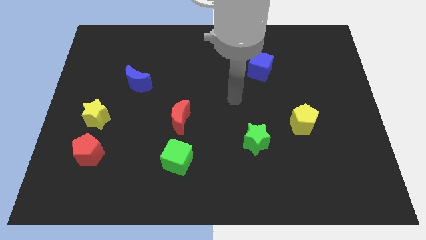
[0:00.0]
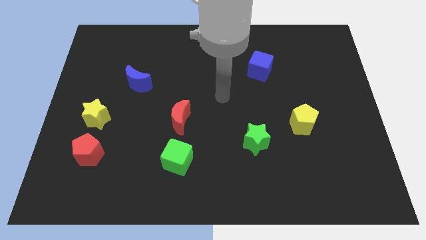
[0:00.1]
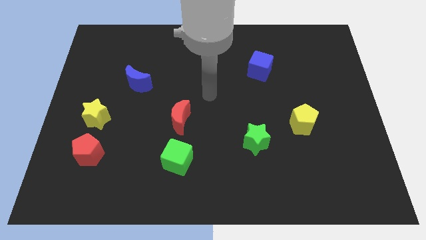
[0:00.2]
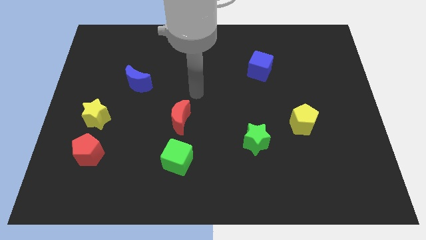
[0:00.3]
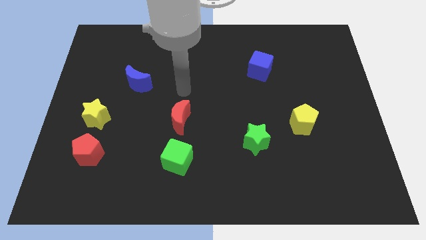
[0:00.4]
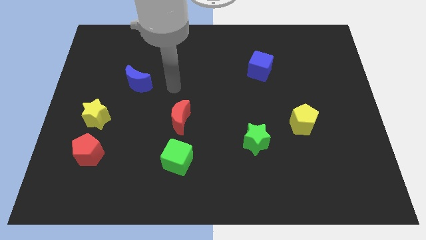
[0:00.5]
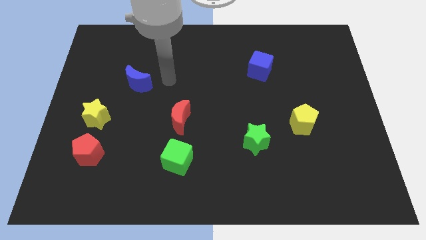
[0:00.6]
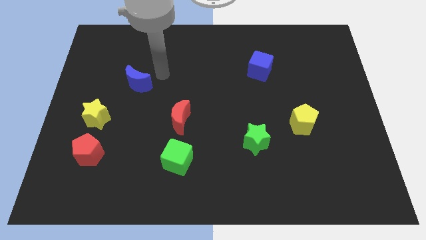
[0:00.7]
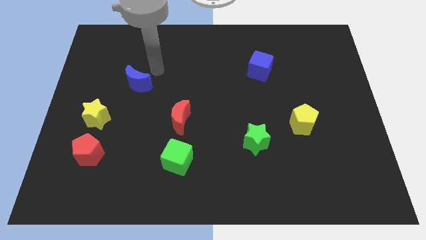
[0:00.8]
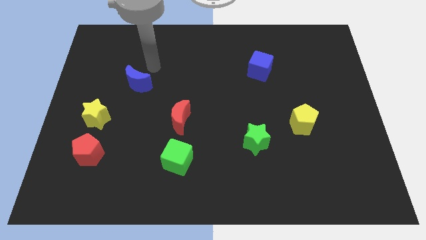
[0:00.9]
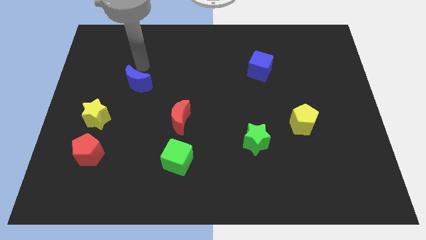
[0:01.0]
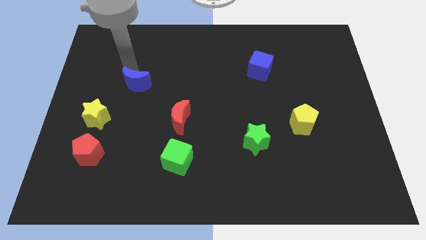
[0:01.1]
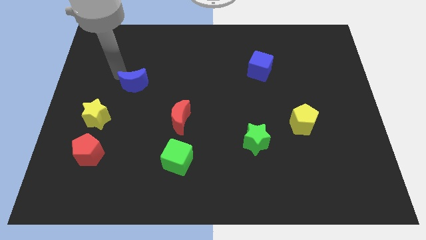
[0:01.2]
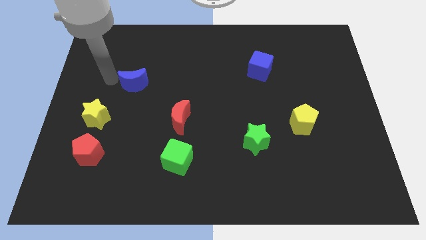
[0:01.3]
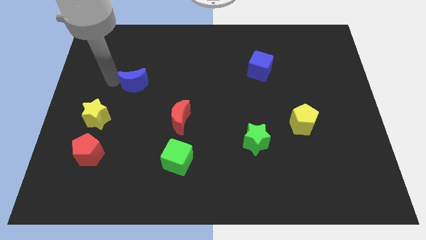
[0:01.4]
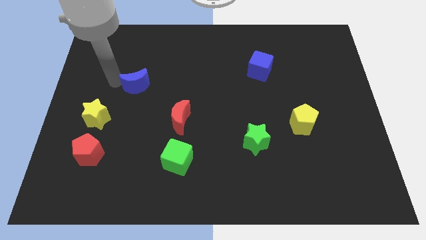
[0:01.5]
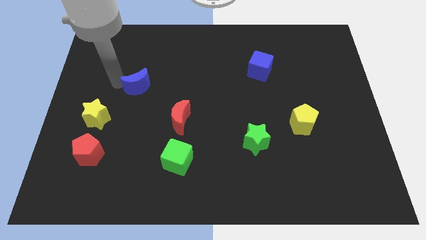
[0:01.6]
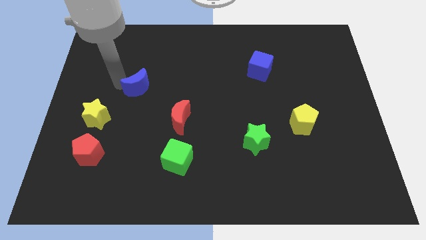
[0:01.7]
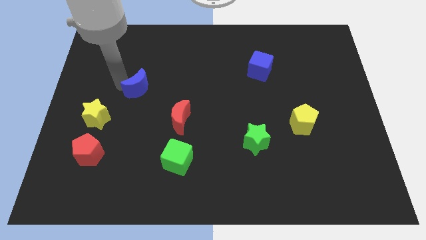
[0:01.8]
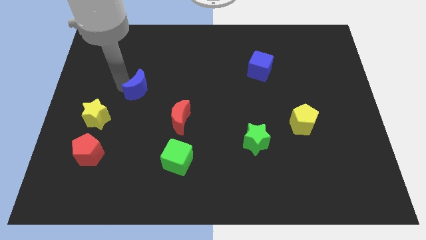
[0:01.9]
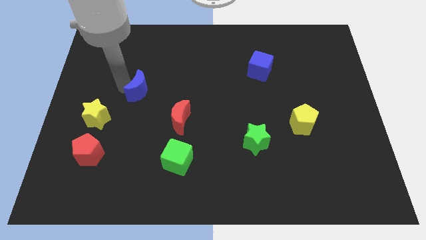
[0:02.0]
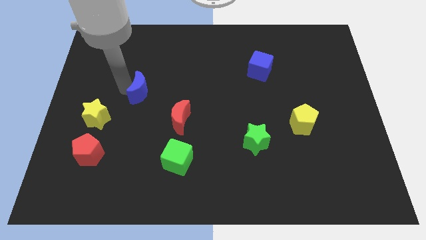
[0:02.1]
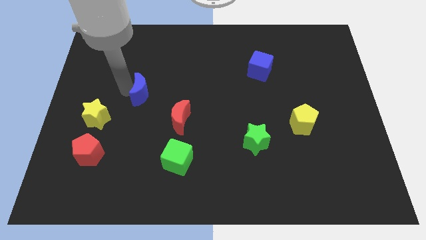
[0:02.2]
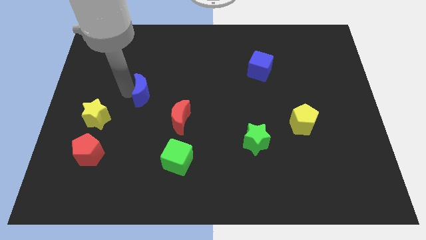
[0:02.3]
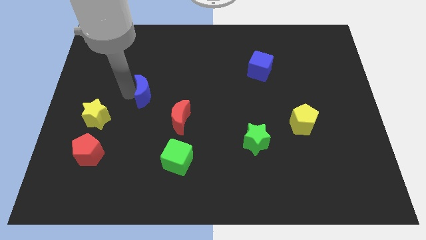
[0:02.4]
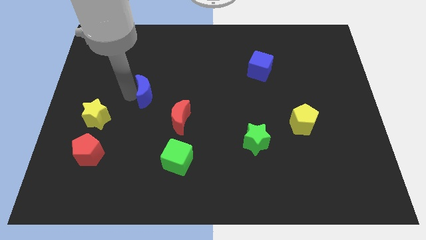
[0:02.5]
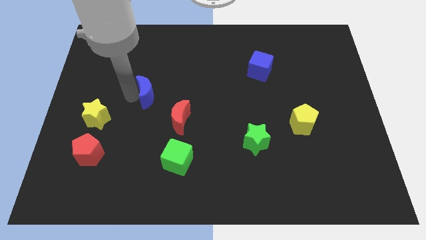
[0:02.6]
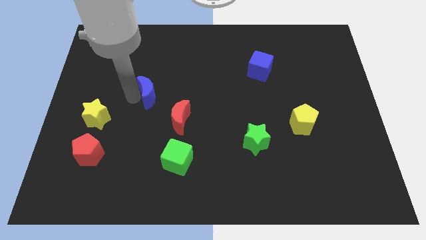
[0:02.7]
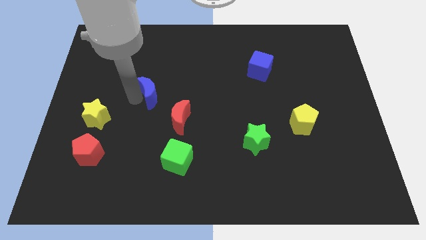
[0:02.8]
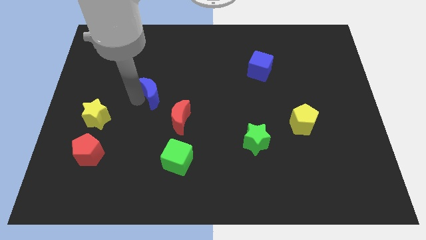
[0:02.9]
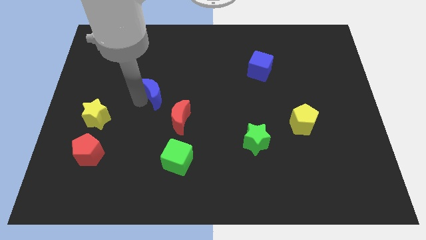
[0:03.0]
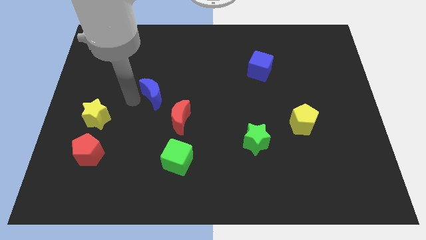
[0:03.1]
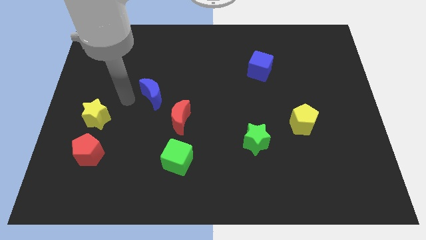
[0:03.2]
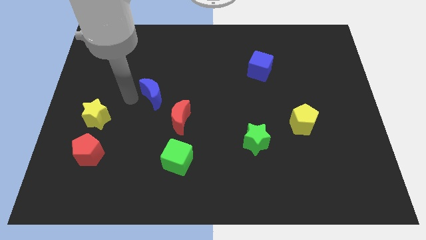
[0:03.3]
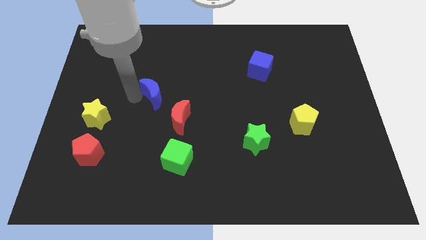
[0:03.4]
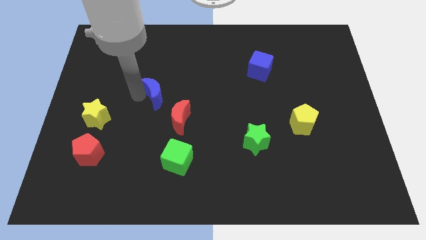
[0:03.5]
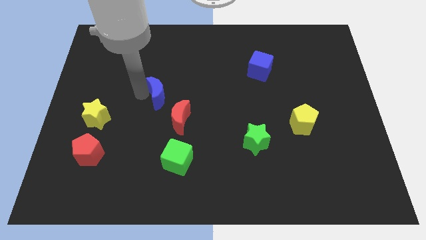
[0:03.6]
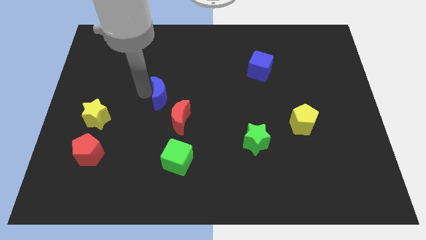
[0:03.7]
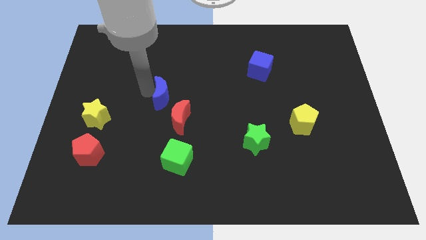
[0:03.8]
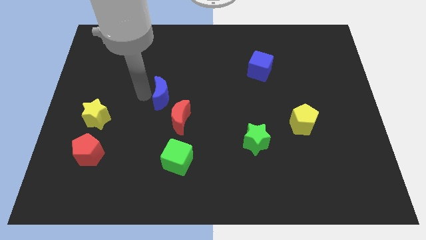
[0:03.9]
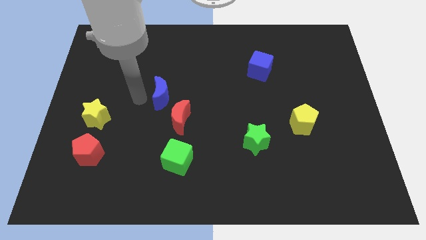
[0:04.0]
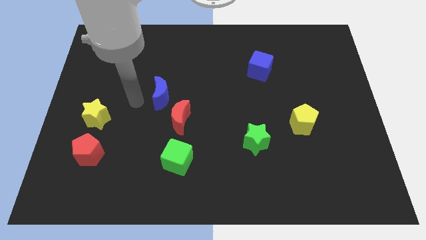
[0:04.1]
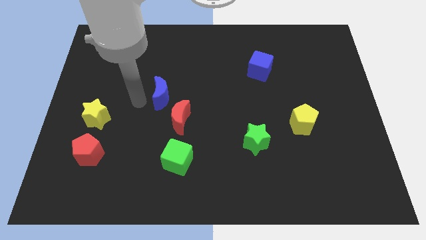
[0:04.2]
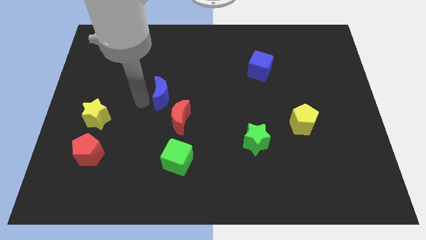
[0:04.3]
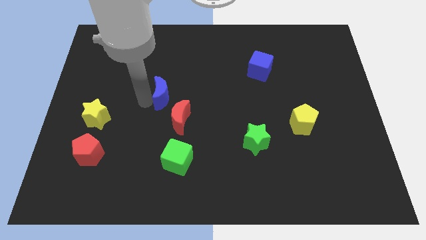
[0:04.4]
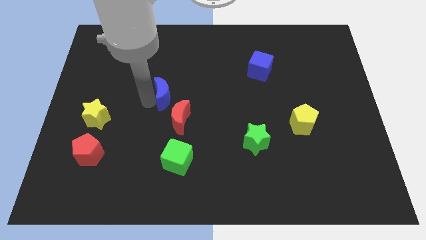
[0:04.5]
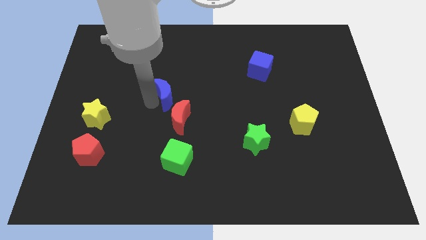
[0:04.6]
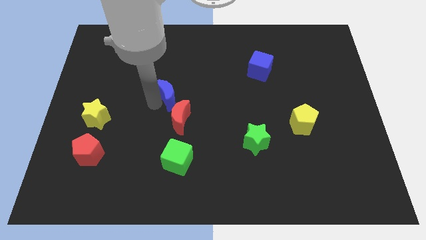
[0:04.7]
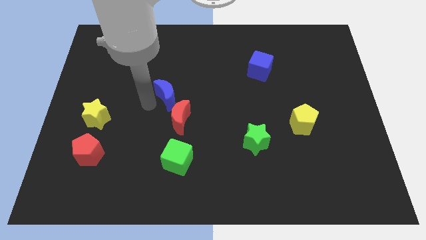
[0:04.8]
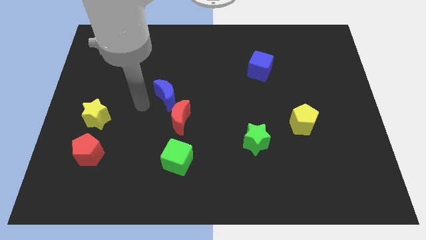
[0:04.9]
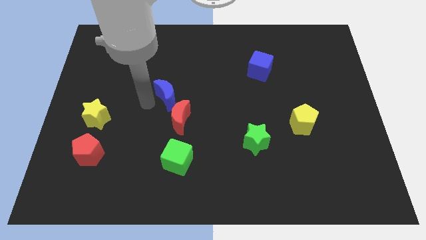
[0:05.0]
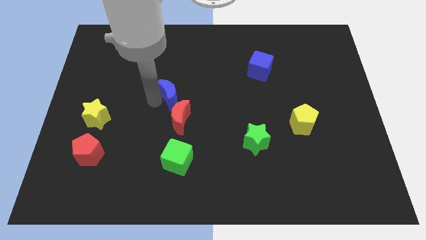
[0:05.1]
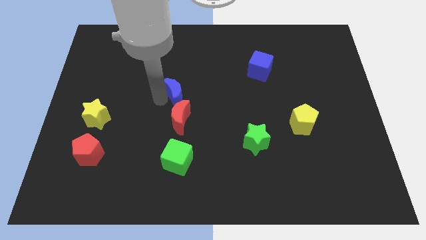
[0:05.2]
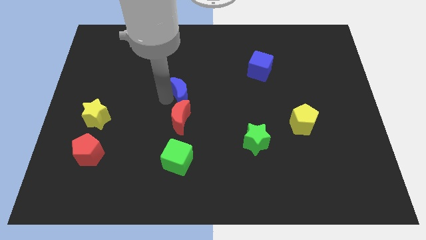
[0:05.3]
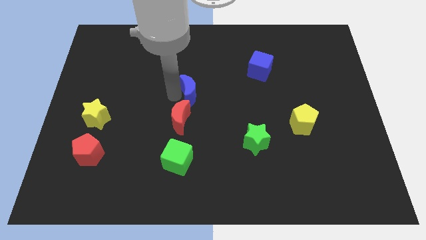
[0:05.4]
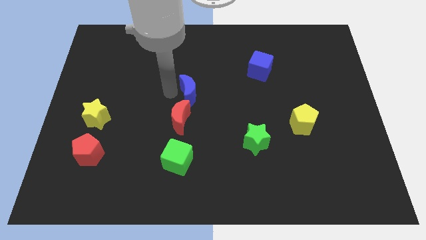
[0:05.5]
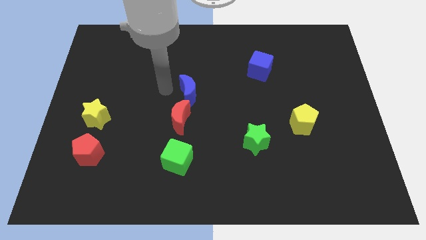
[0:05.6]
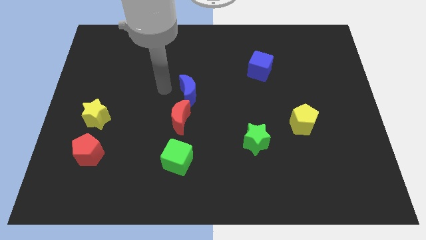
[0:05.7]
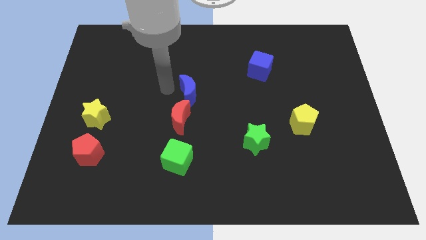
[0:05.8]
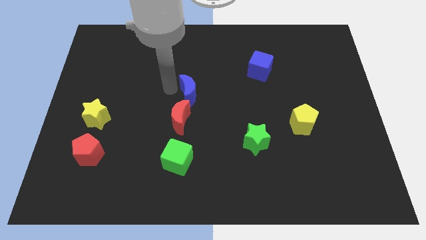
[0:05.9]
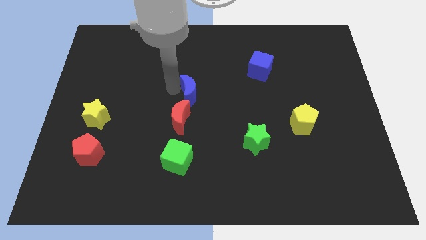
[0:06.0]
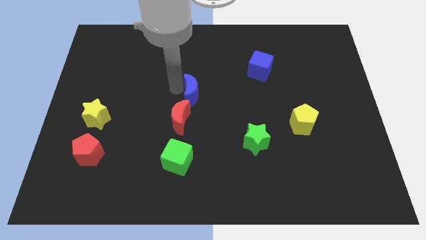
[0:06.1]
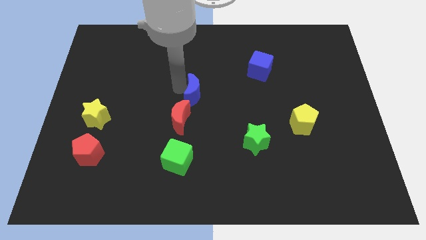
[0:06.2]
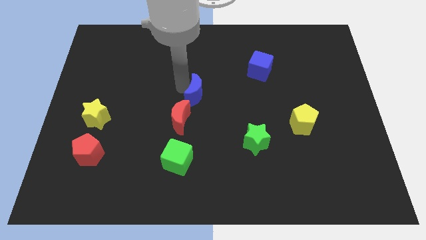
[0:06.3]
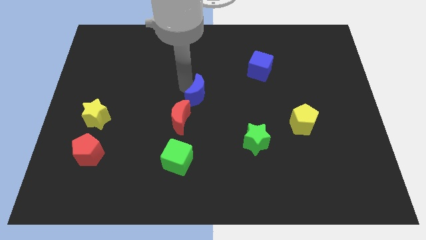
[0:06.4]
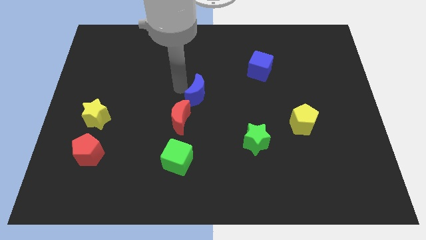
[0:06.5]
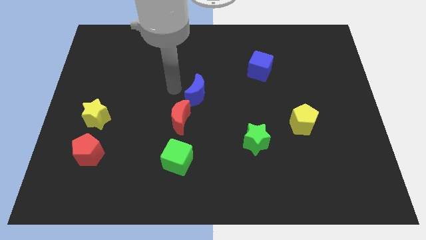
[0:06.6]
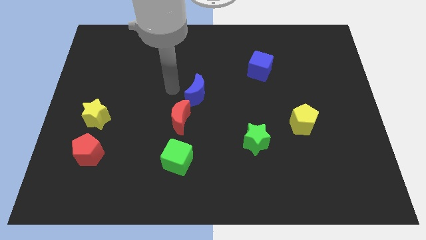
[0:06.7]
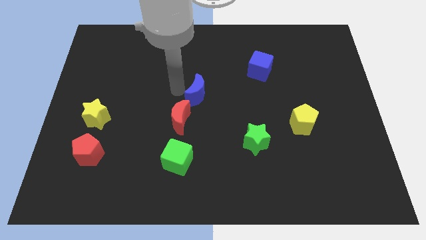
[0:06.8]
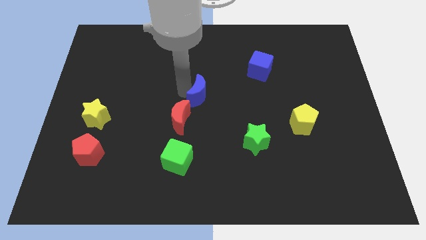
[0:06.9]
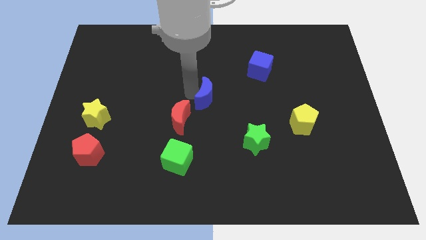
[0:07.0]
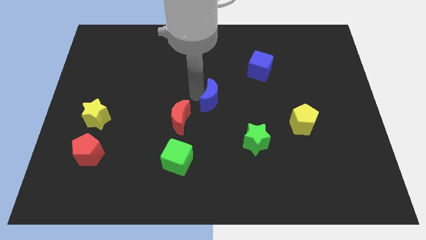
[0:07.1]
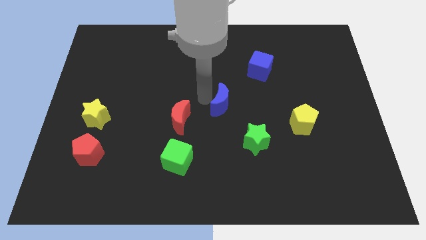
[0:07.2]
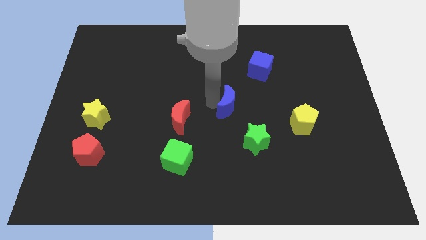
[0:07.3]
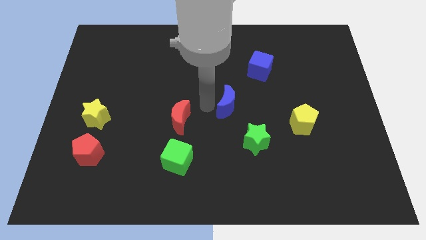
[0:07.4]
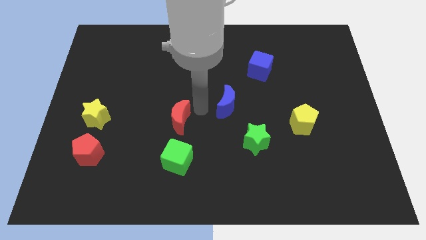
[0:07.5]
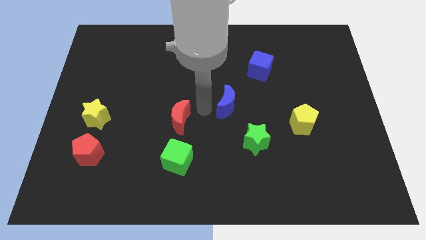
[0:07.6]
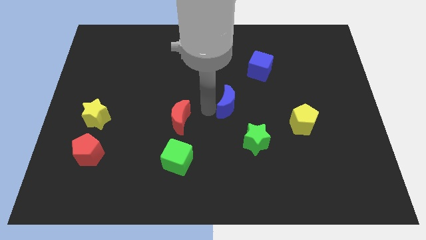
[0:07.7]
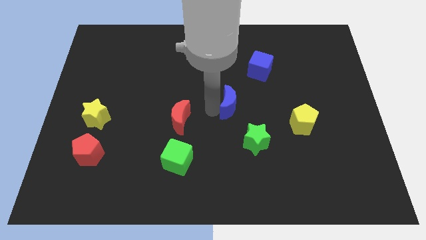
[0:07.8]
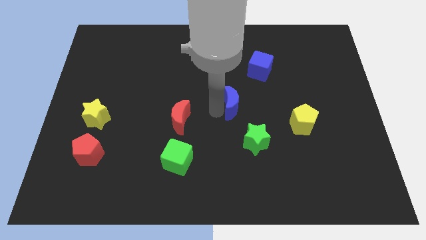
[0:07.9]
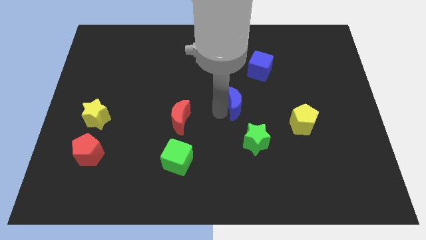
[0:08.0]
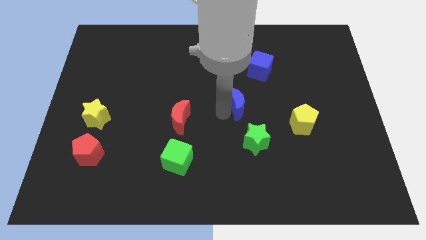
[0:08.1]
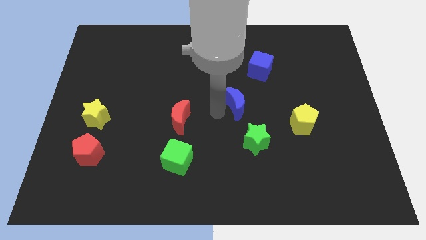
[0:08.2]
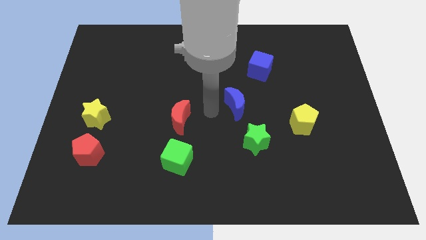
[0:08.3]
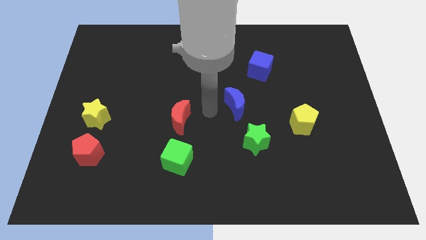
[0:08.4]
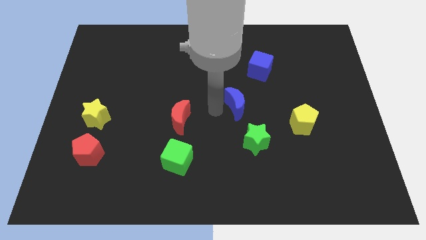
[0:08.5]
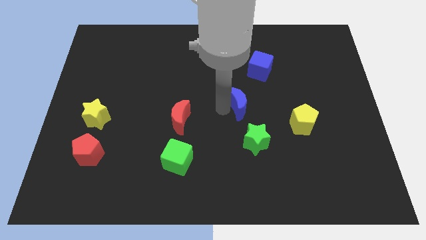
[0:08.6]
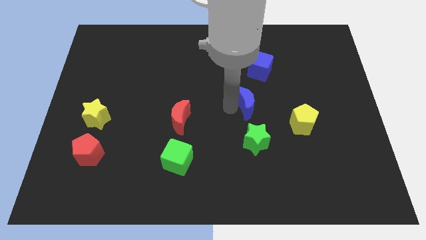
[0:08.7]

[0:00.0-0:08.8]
slide the blue moon to the bottom side of the blue cube
